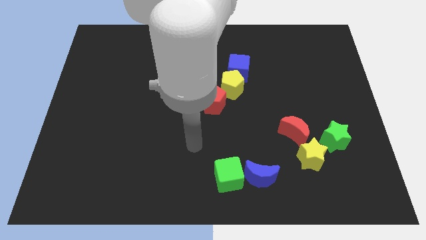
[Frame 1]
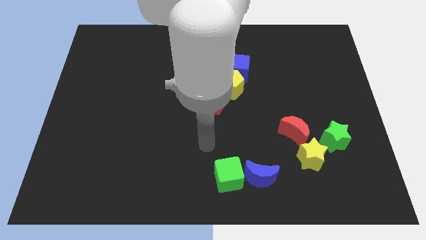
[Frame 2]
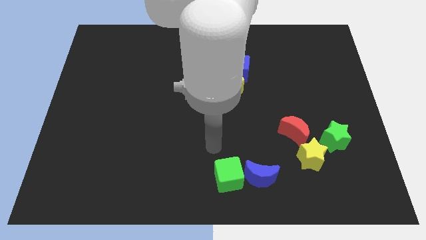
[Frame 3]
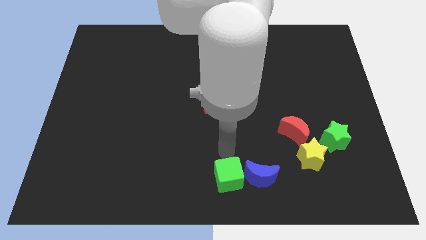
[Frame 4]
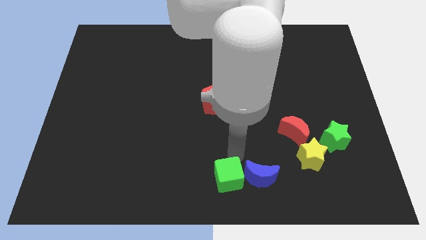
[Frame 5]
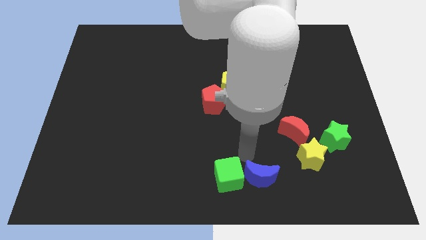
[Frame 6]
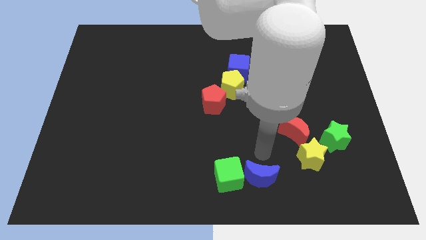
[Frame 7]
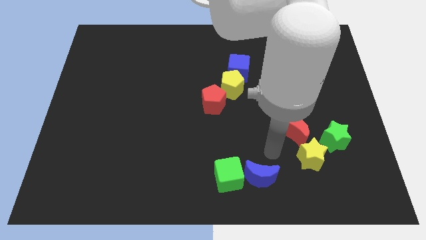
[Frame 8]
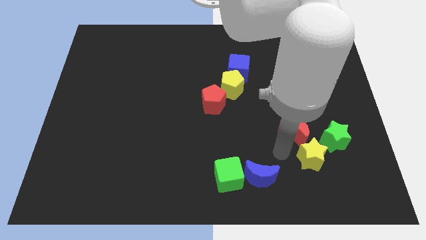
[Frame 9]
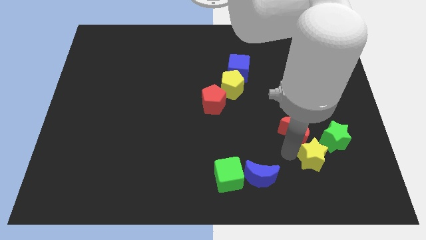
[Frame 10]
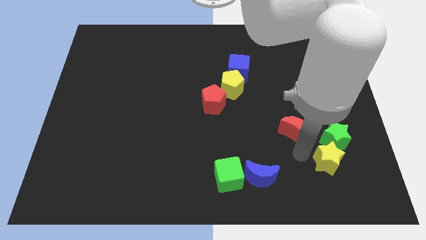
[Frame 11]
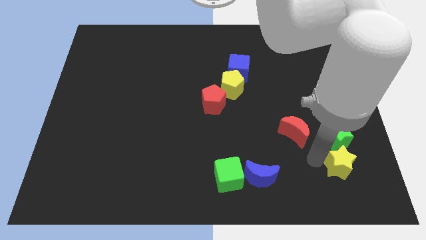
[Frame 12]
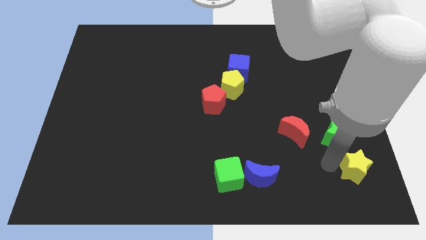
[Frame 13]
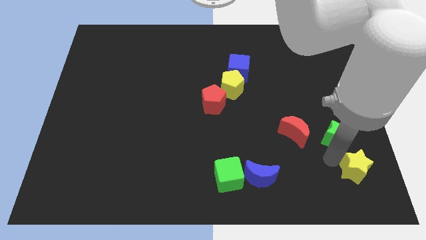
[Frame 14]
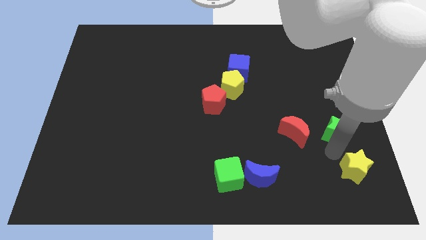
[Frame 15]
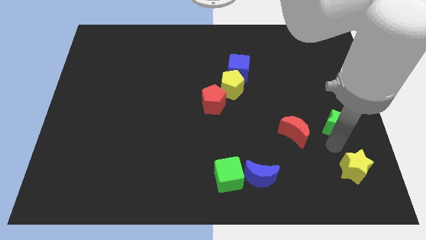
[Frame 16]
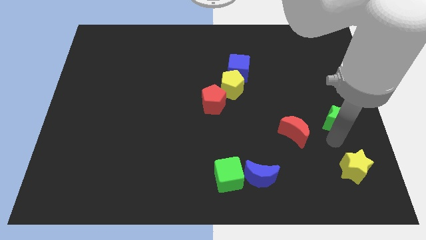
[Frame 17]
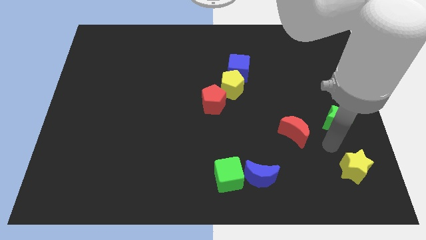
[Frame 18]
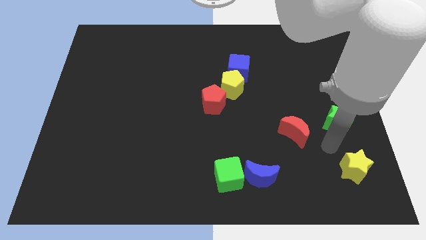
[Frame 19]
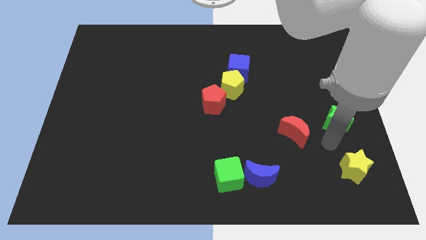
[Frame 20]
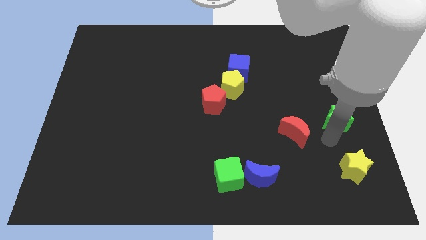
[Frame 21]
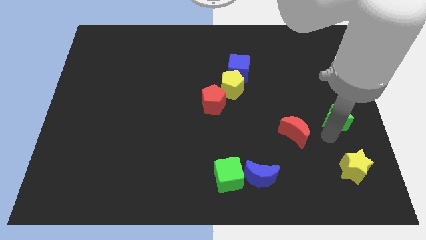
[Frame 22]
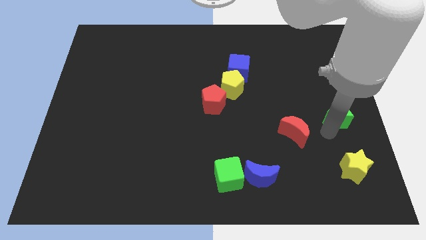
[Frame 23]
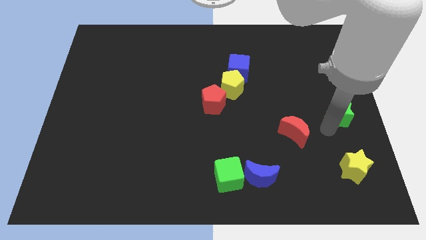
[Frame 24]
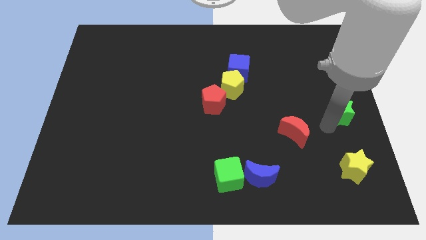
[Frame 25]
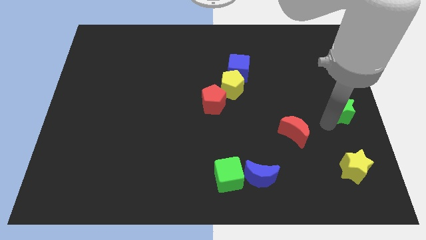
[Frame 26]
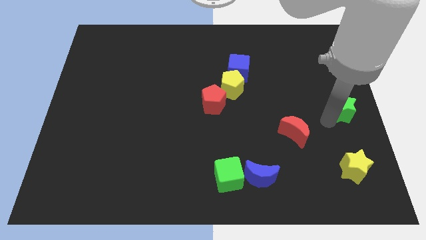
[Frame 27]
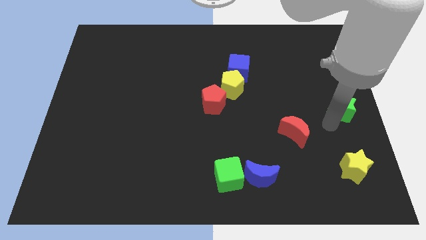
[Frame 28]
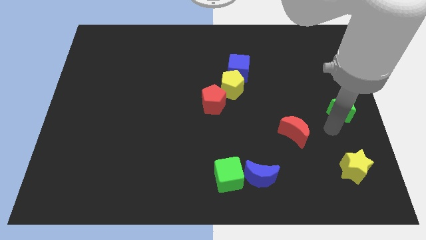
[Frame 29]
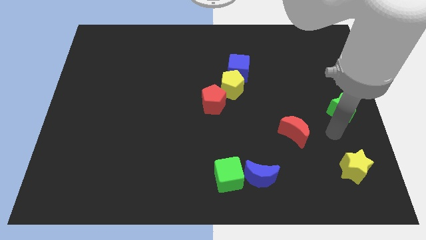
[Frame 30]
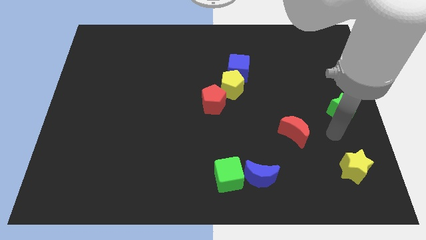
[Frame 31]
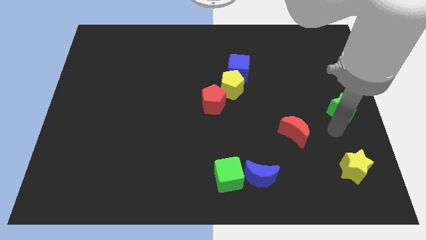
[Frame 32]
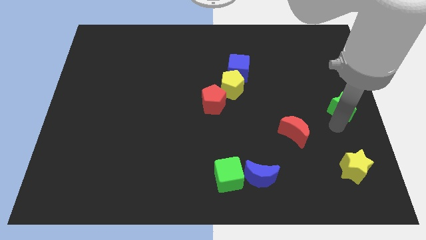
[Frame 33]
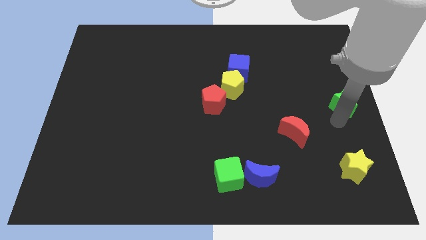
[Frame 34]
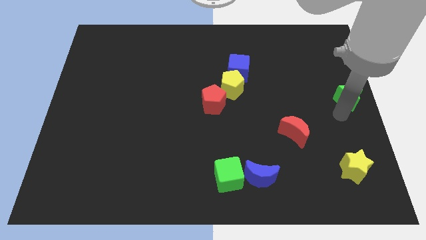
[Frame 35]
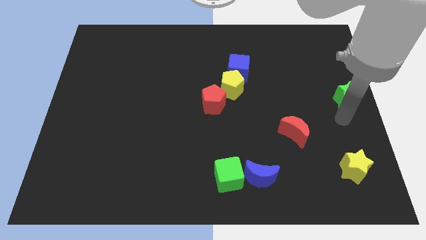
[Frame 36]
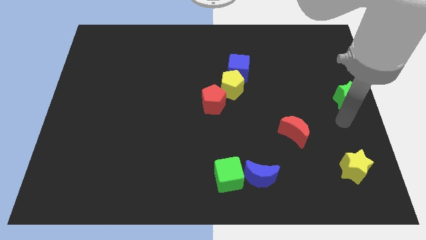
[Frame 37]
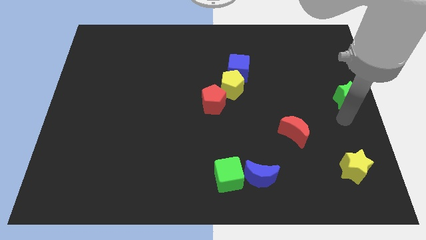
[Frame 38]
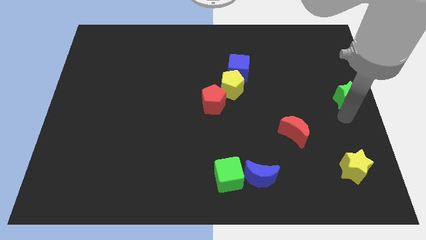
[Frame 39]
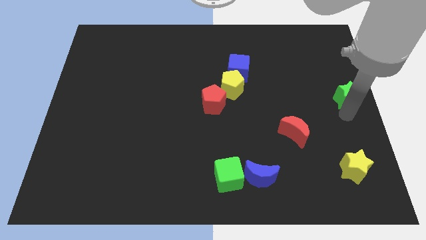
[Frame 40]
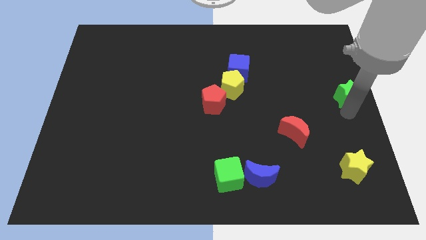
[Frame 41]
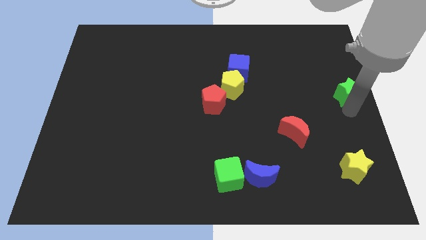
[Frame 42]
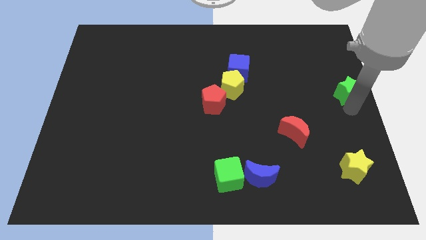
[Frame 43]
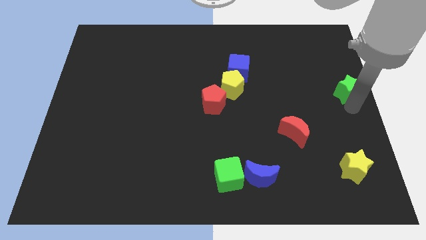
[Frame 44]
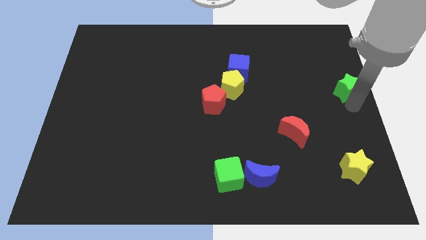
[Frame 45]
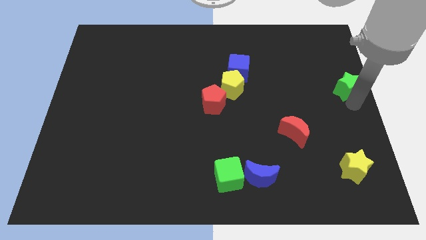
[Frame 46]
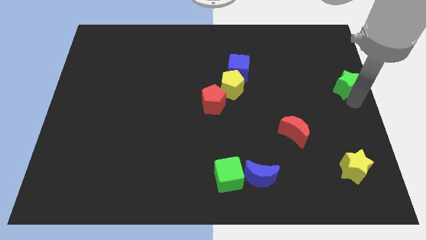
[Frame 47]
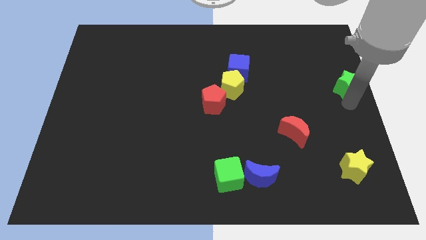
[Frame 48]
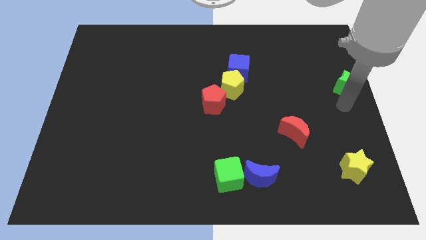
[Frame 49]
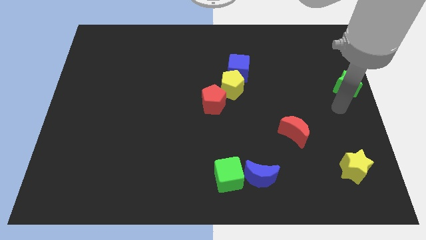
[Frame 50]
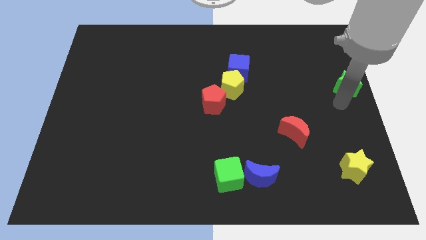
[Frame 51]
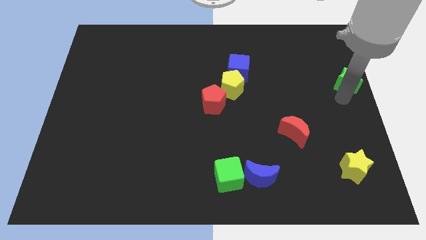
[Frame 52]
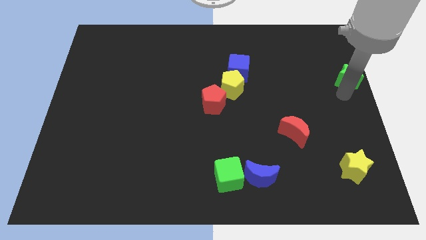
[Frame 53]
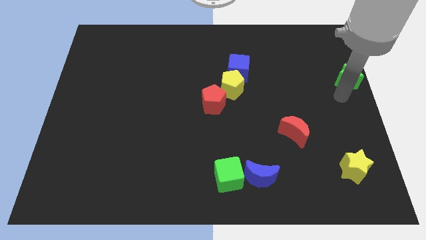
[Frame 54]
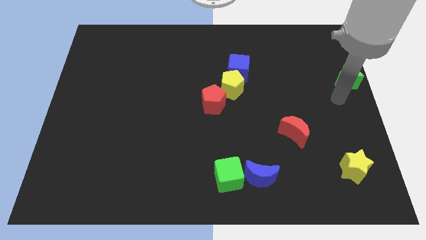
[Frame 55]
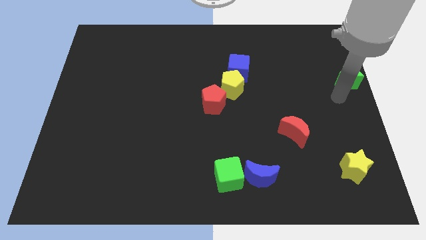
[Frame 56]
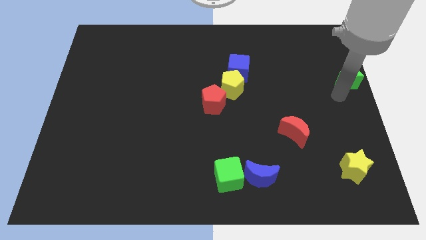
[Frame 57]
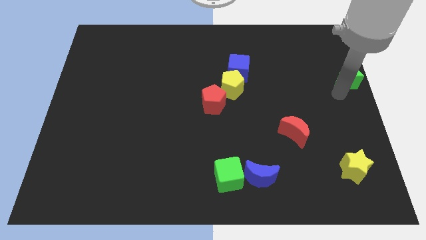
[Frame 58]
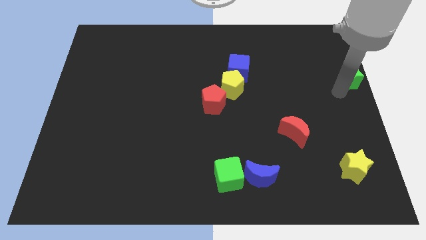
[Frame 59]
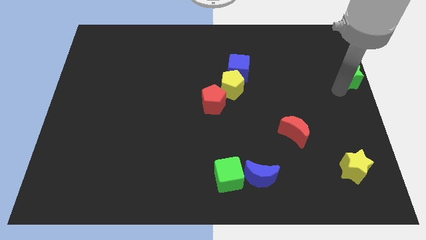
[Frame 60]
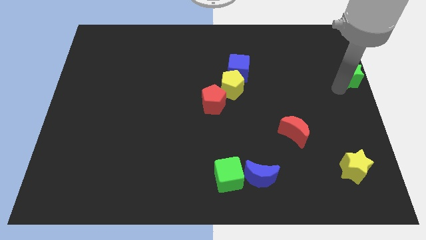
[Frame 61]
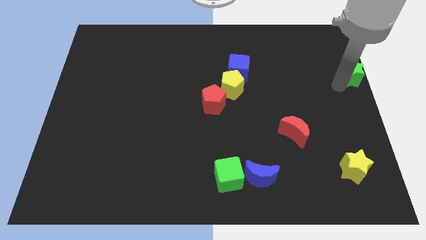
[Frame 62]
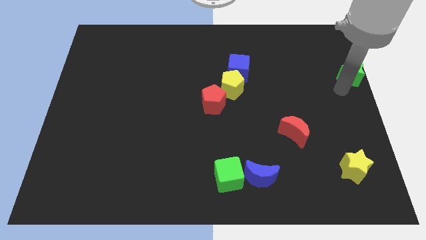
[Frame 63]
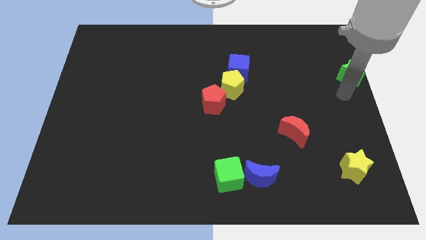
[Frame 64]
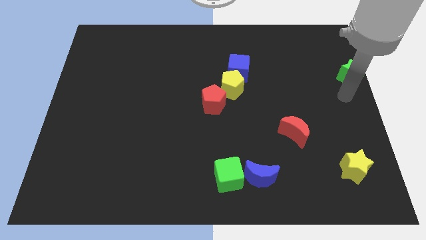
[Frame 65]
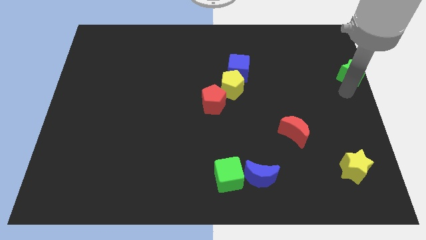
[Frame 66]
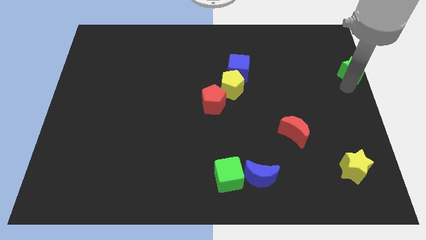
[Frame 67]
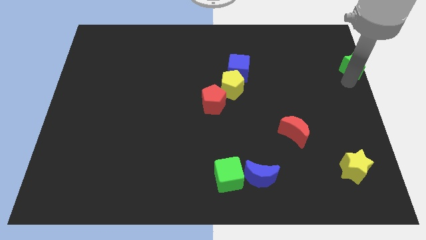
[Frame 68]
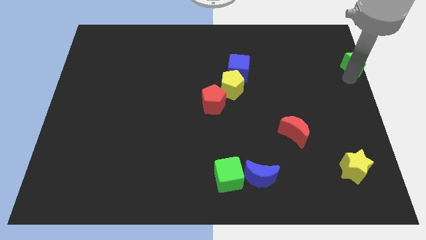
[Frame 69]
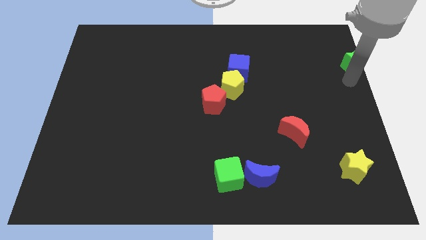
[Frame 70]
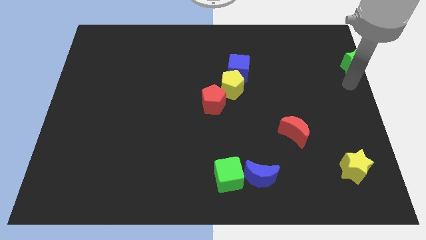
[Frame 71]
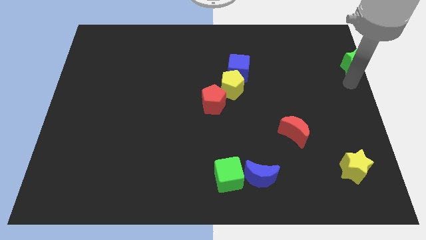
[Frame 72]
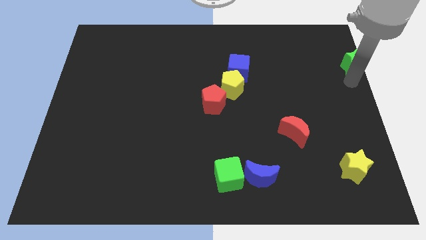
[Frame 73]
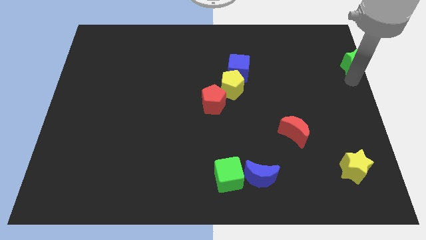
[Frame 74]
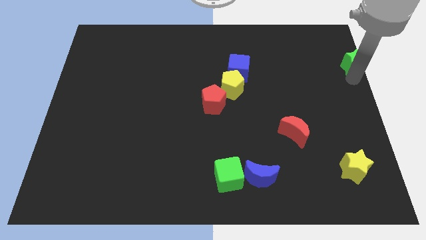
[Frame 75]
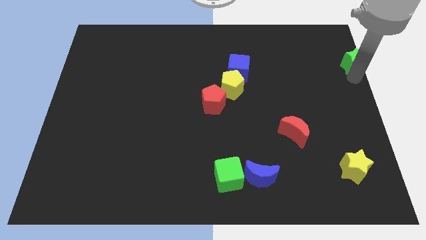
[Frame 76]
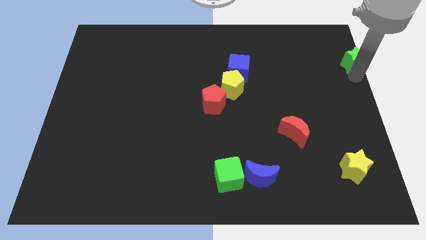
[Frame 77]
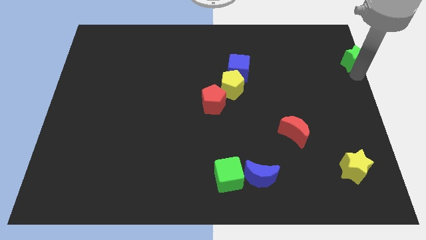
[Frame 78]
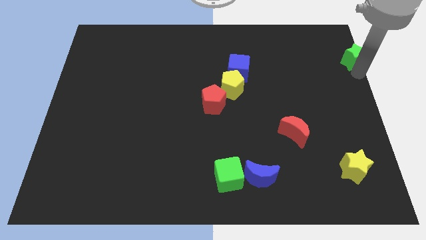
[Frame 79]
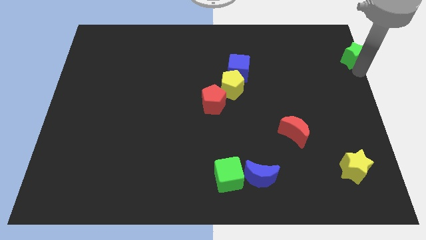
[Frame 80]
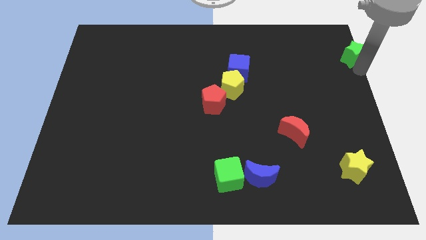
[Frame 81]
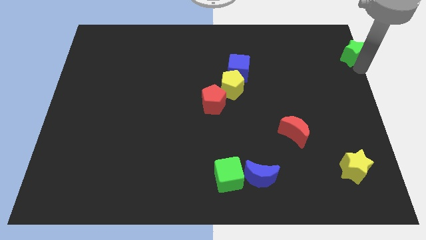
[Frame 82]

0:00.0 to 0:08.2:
slide the green star to the top right
